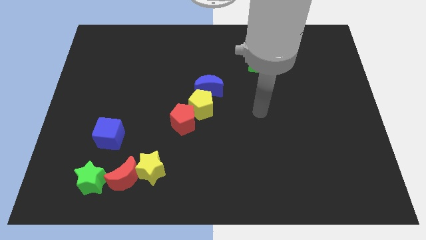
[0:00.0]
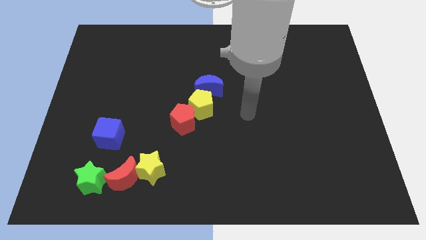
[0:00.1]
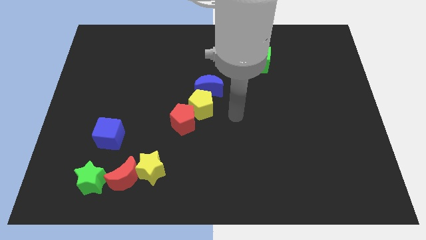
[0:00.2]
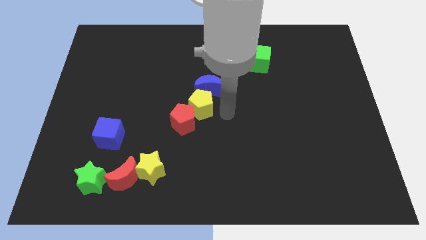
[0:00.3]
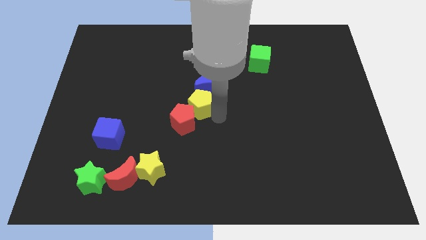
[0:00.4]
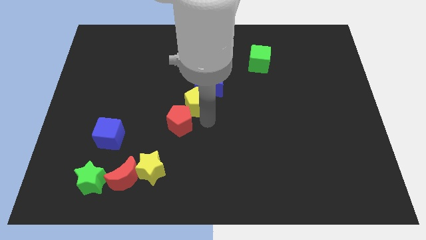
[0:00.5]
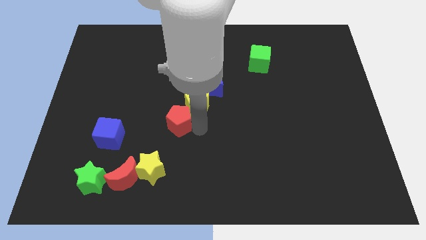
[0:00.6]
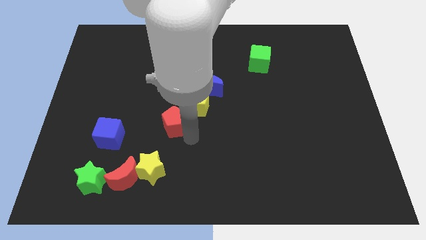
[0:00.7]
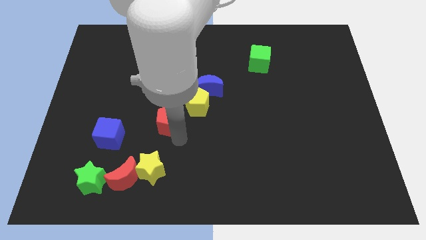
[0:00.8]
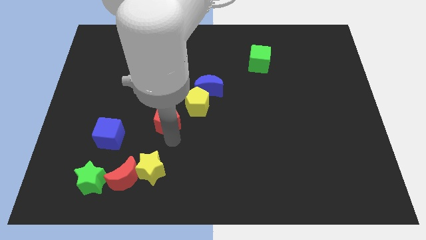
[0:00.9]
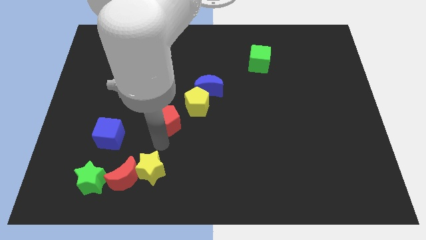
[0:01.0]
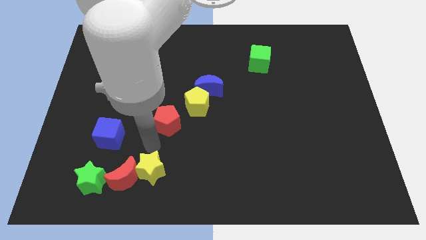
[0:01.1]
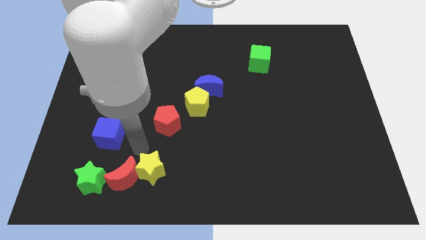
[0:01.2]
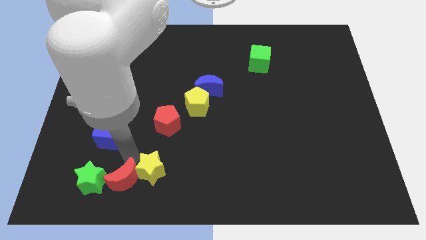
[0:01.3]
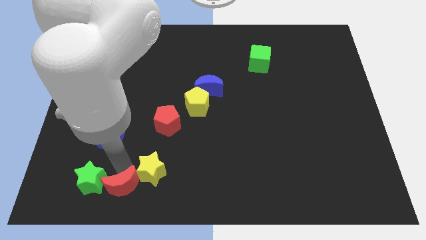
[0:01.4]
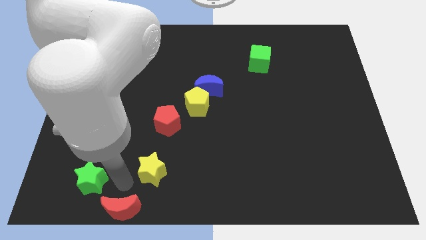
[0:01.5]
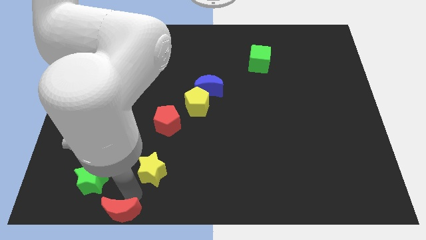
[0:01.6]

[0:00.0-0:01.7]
pull the yellow star apart from the red moon

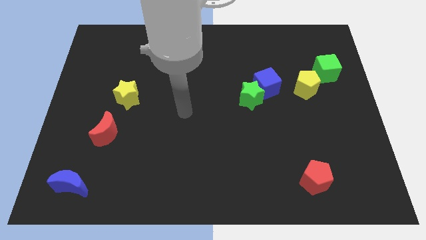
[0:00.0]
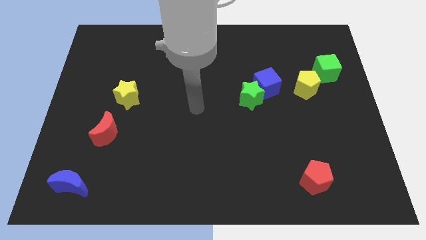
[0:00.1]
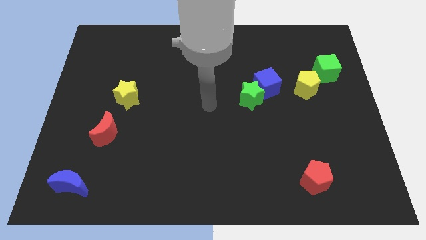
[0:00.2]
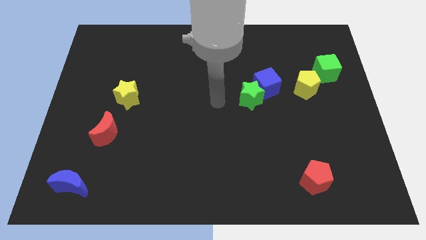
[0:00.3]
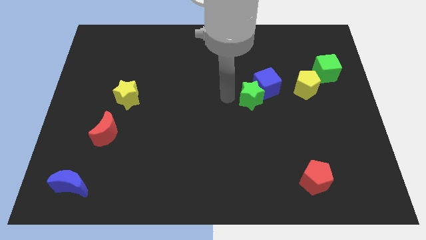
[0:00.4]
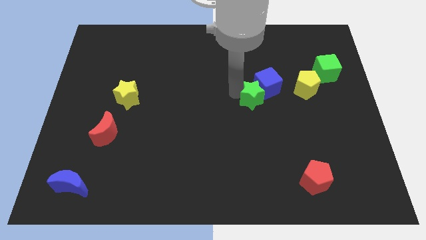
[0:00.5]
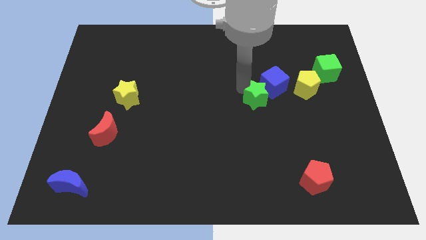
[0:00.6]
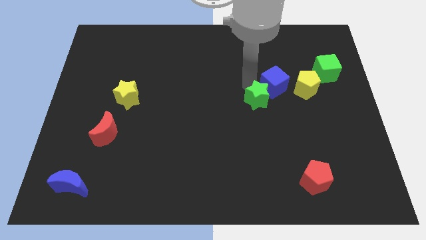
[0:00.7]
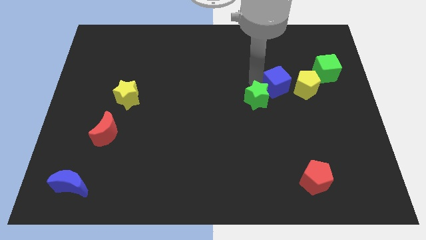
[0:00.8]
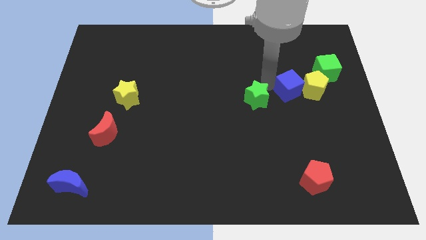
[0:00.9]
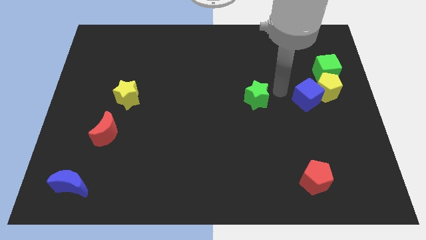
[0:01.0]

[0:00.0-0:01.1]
separate the green star from the blue cube

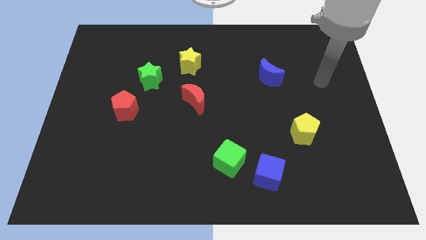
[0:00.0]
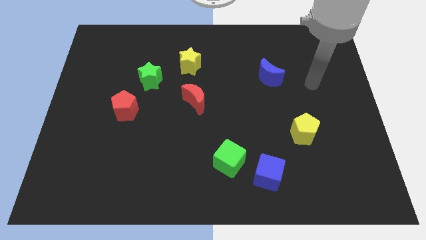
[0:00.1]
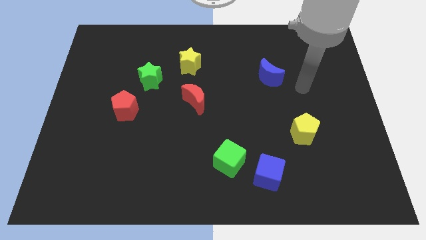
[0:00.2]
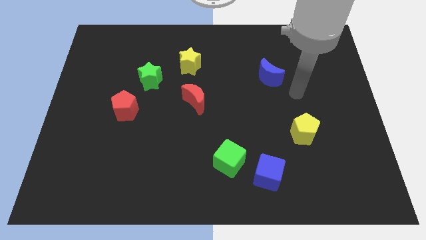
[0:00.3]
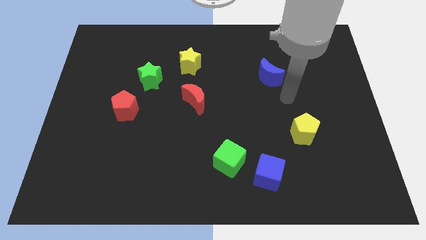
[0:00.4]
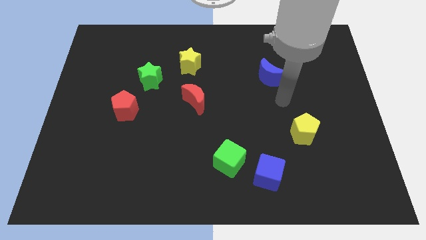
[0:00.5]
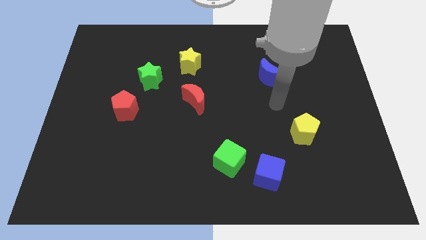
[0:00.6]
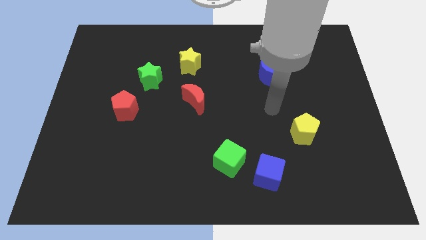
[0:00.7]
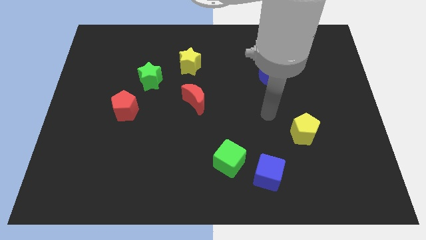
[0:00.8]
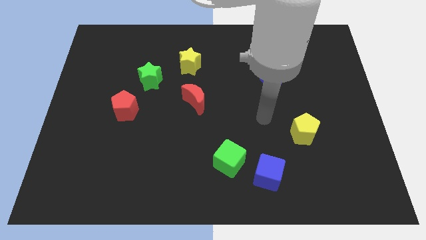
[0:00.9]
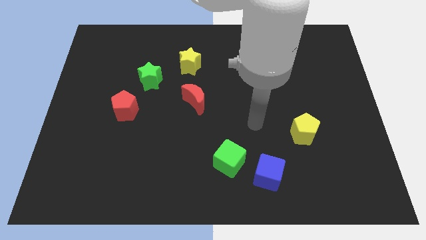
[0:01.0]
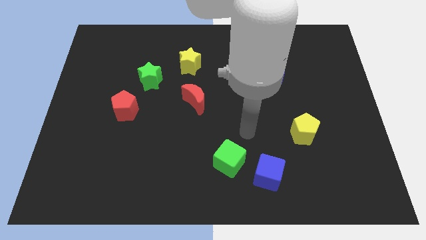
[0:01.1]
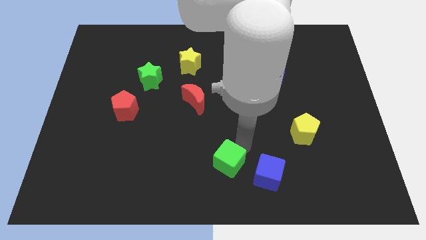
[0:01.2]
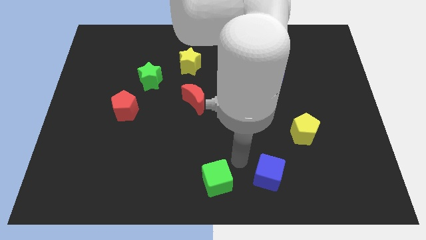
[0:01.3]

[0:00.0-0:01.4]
separate the blue cube from the green cube

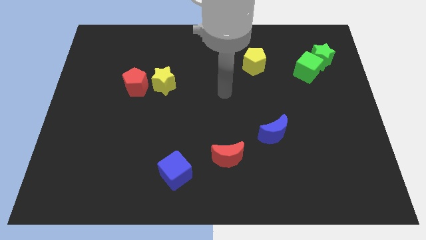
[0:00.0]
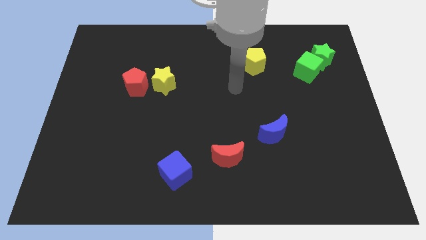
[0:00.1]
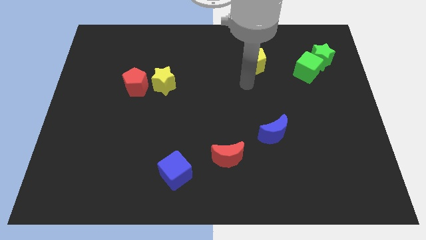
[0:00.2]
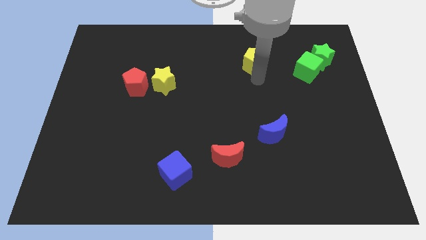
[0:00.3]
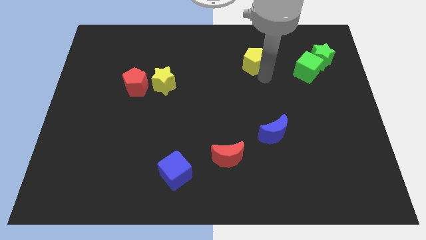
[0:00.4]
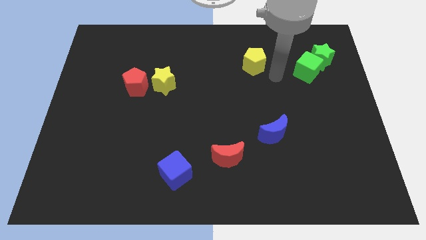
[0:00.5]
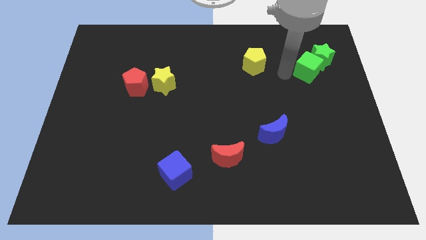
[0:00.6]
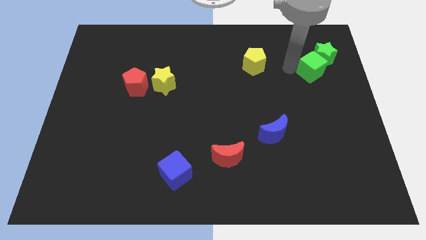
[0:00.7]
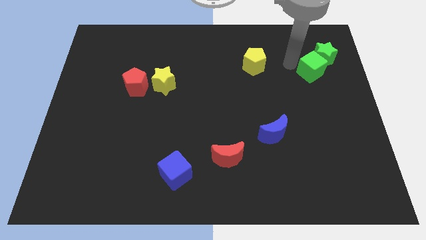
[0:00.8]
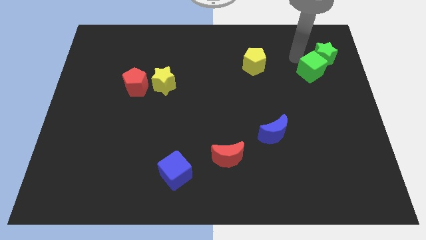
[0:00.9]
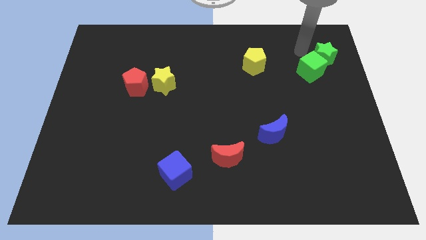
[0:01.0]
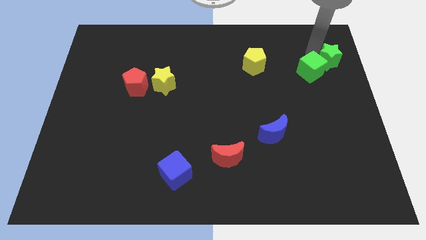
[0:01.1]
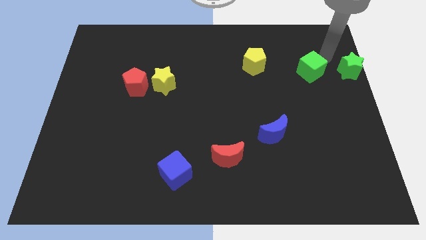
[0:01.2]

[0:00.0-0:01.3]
pull the green cube apart from the green star

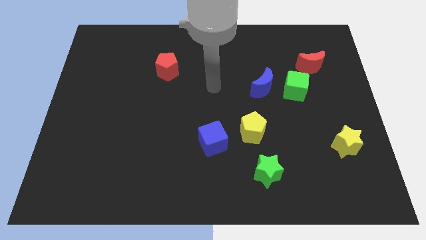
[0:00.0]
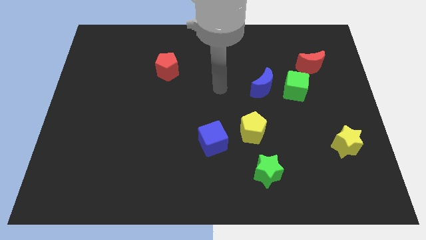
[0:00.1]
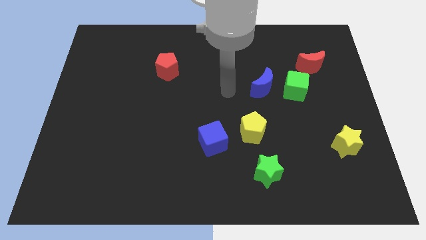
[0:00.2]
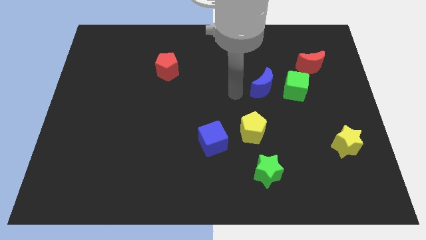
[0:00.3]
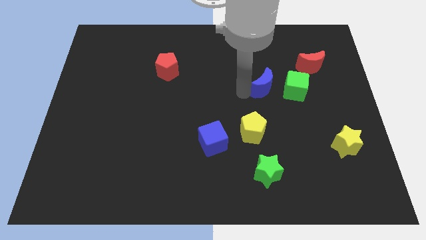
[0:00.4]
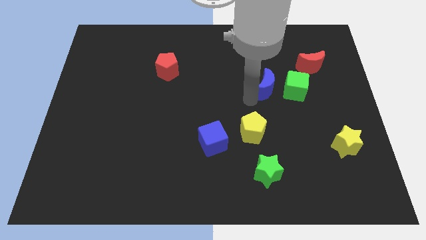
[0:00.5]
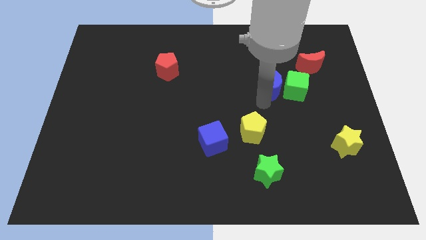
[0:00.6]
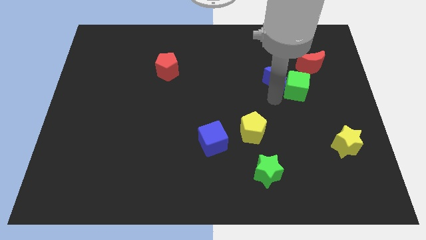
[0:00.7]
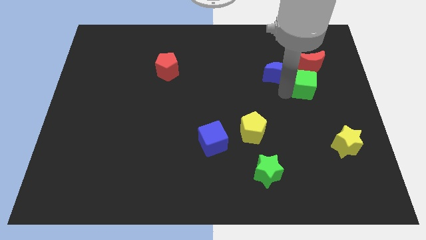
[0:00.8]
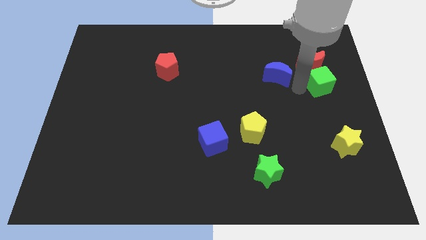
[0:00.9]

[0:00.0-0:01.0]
move the blue moon away from the green cube

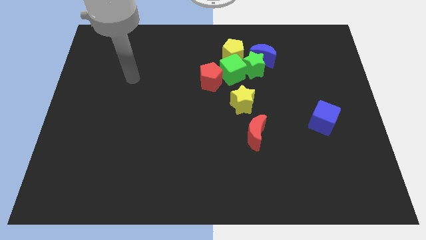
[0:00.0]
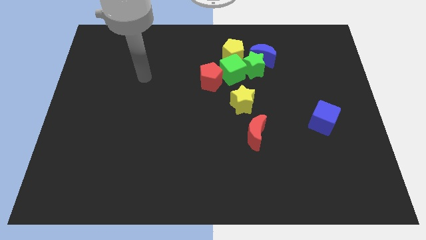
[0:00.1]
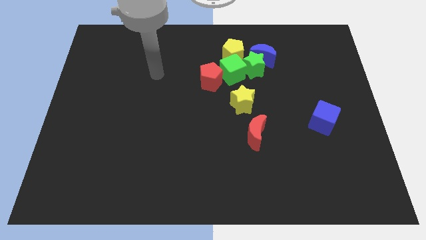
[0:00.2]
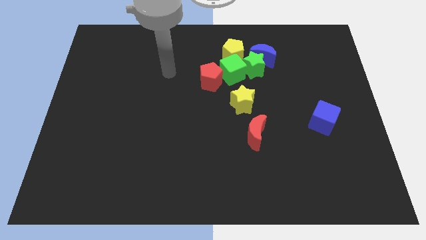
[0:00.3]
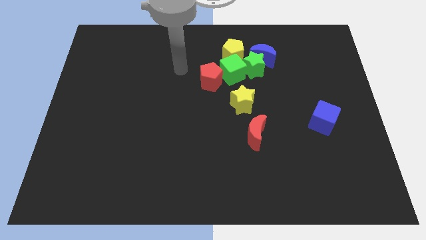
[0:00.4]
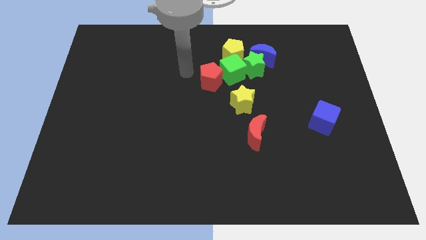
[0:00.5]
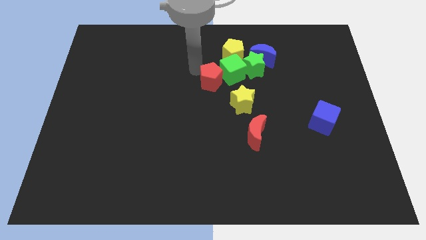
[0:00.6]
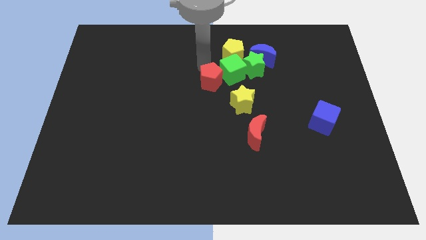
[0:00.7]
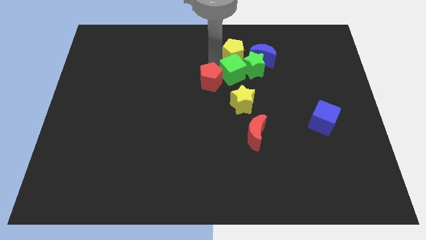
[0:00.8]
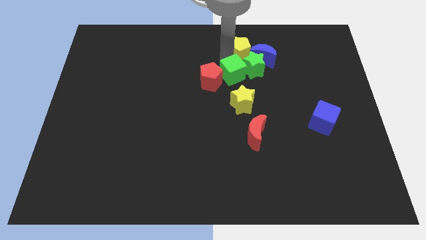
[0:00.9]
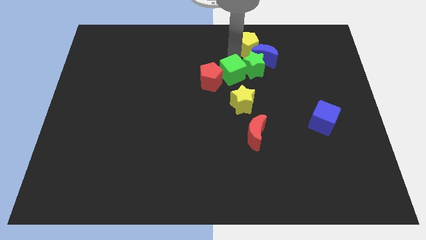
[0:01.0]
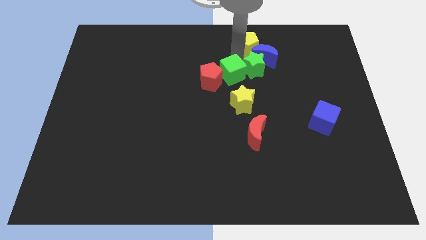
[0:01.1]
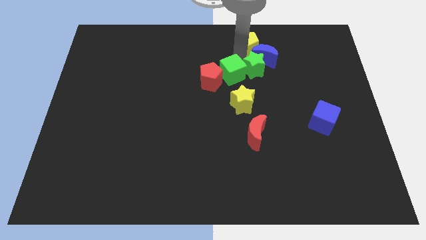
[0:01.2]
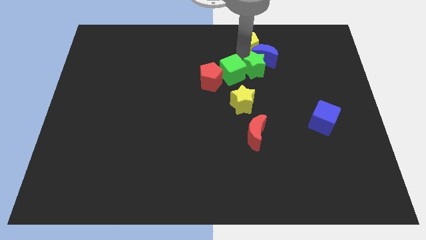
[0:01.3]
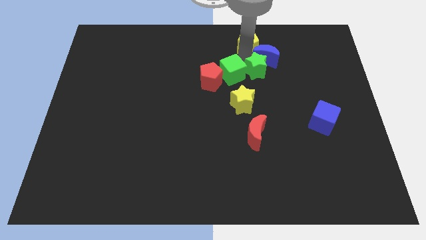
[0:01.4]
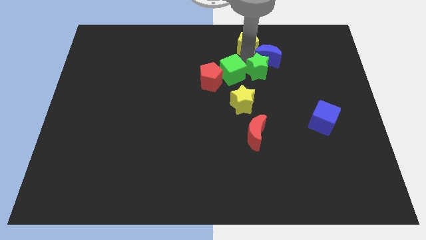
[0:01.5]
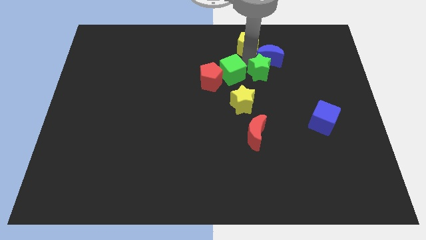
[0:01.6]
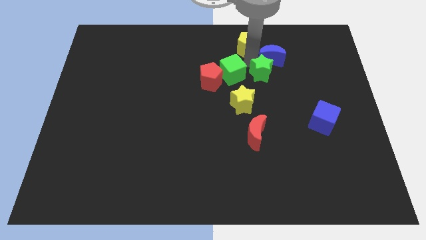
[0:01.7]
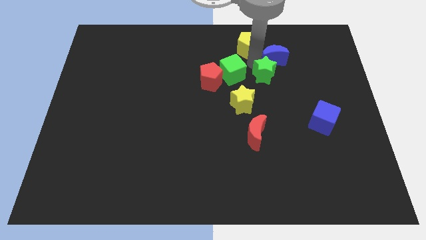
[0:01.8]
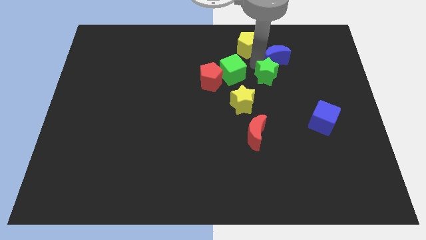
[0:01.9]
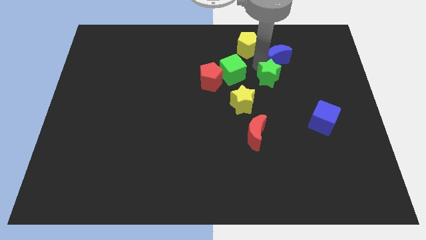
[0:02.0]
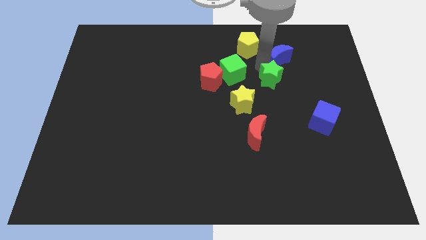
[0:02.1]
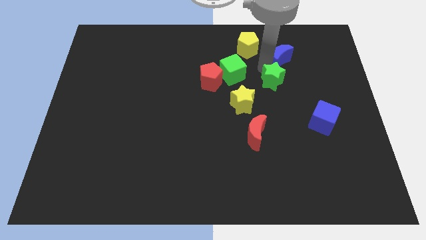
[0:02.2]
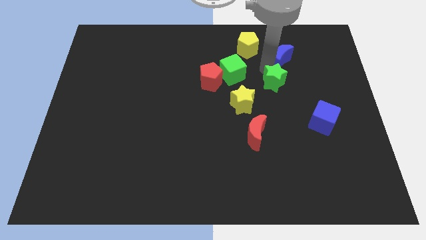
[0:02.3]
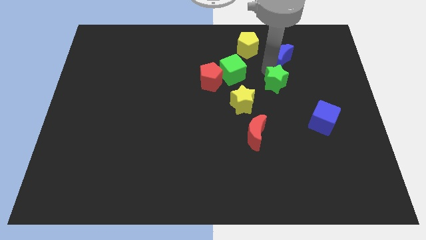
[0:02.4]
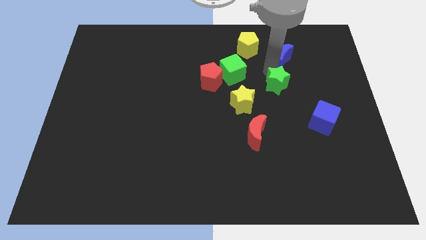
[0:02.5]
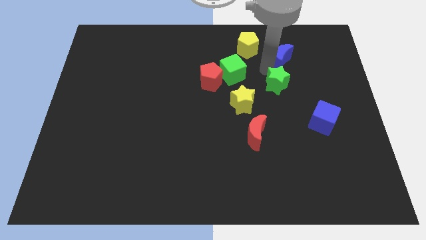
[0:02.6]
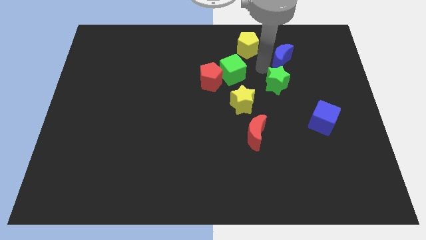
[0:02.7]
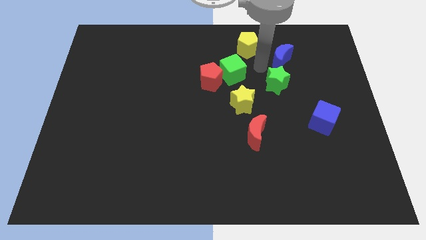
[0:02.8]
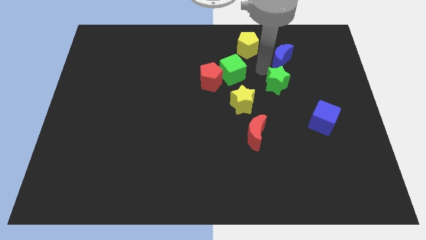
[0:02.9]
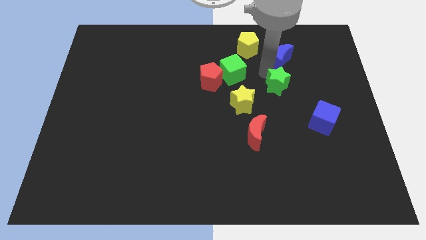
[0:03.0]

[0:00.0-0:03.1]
separate the green star from the blue moon, green cube, and yellow pentagon
